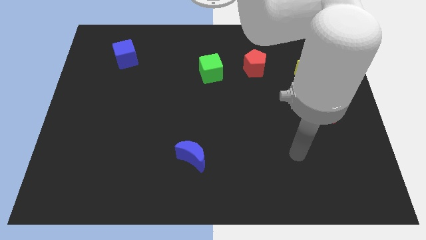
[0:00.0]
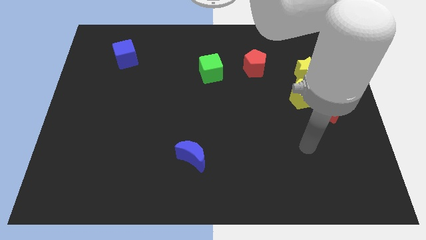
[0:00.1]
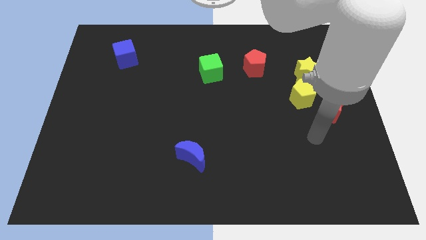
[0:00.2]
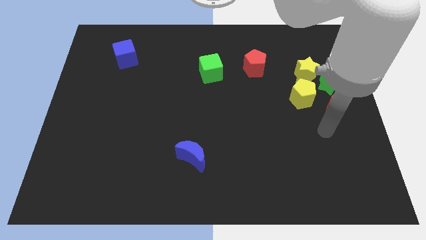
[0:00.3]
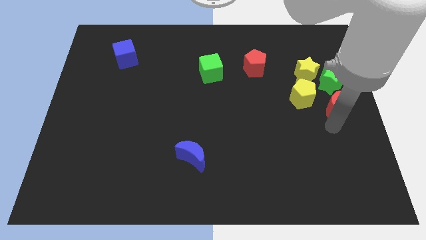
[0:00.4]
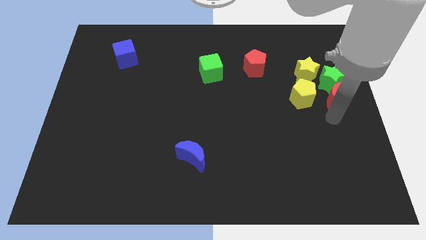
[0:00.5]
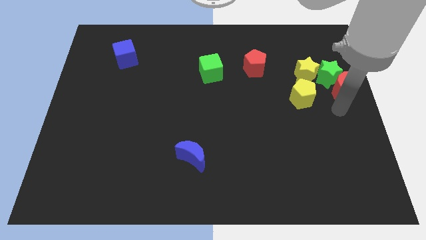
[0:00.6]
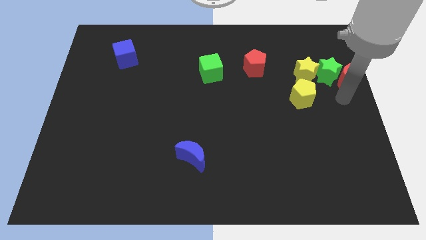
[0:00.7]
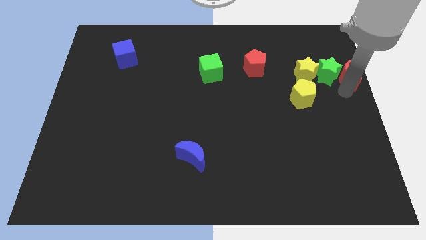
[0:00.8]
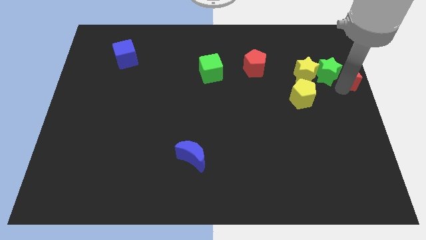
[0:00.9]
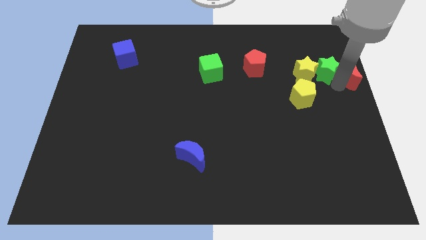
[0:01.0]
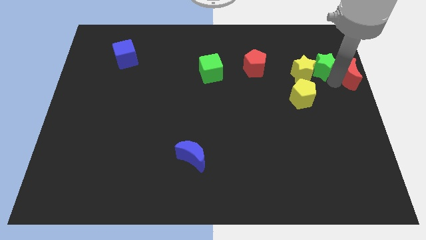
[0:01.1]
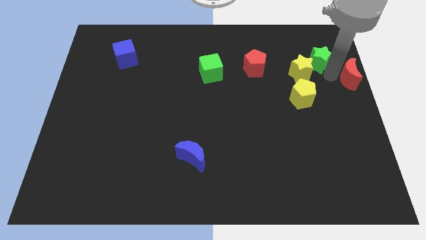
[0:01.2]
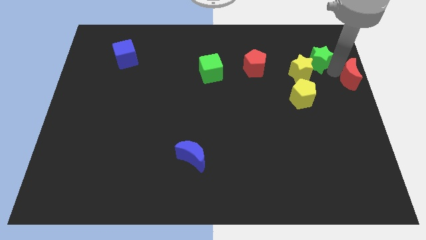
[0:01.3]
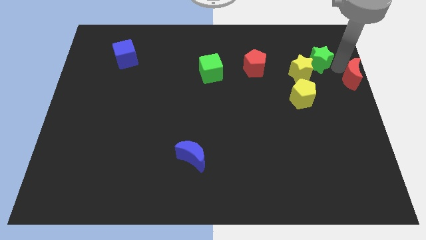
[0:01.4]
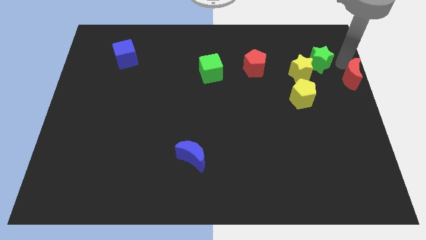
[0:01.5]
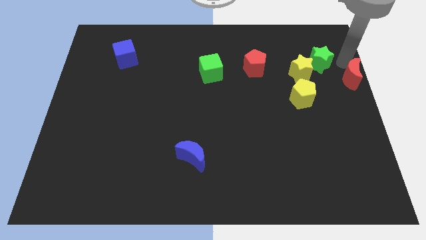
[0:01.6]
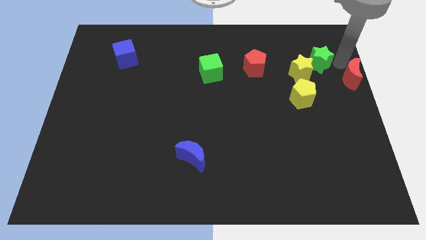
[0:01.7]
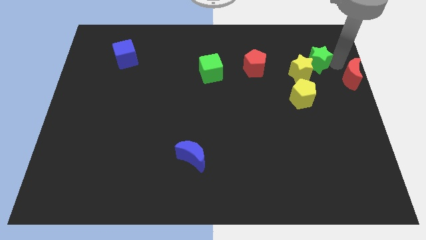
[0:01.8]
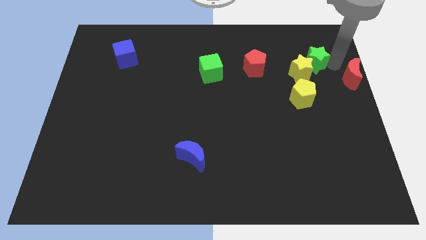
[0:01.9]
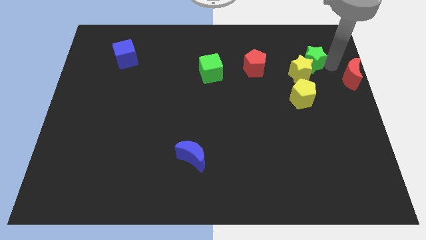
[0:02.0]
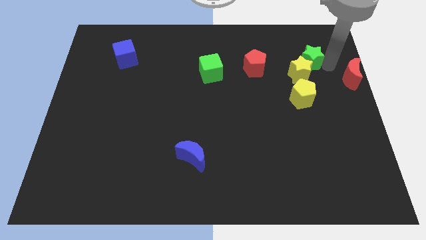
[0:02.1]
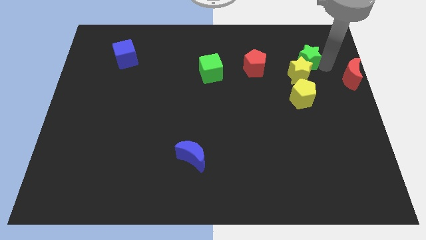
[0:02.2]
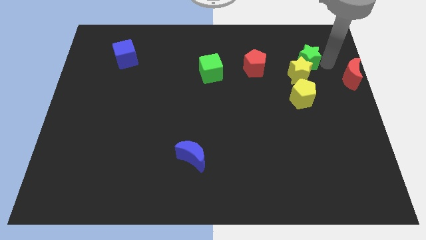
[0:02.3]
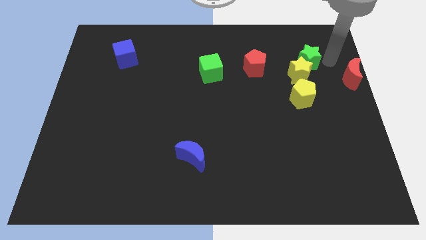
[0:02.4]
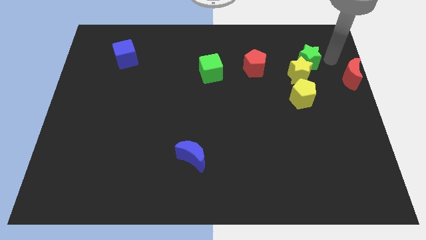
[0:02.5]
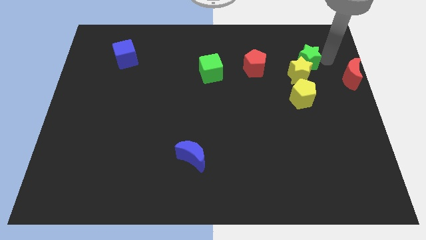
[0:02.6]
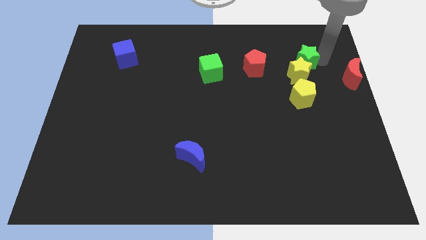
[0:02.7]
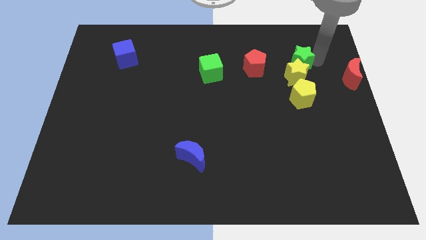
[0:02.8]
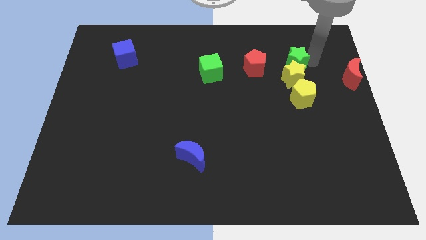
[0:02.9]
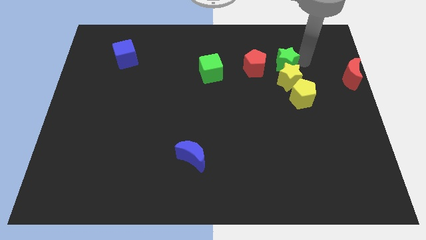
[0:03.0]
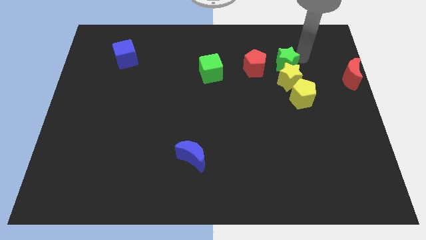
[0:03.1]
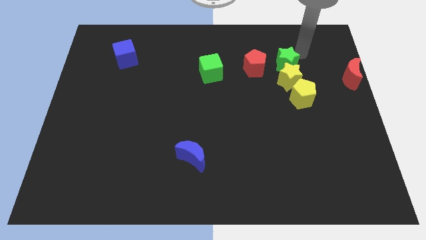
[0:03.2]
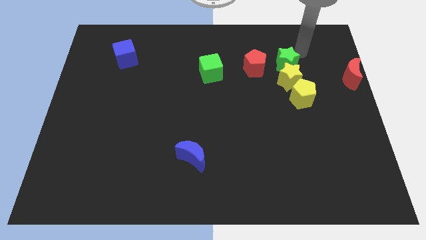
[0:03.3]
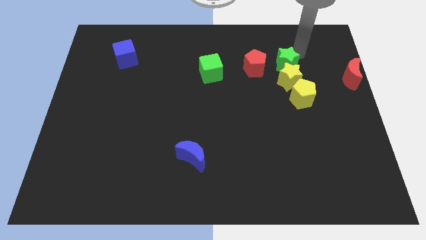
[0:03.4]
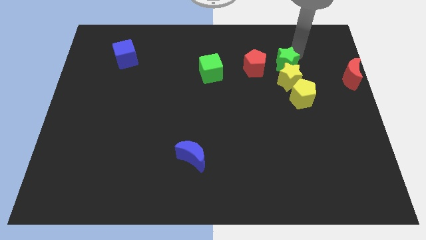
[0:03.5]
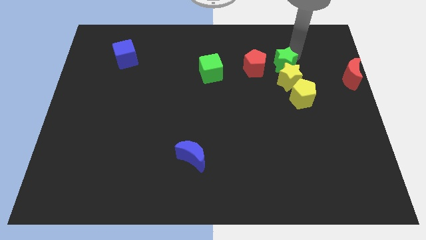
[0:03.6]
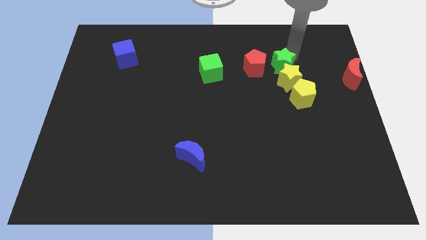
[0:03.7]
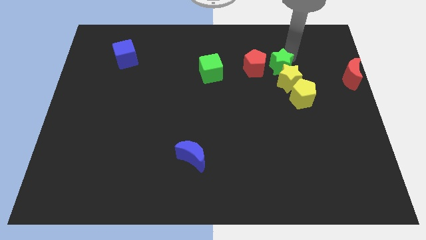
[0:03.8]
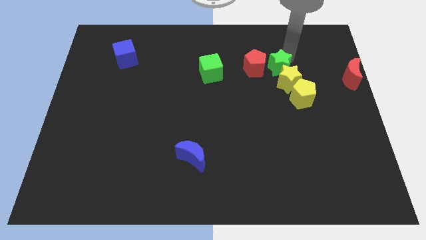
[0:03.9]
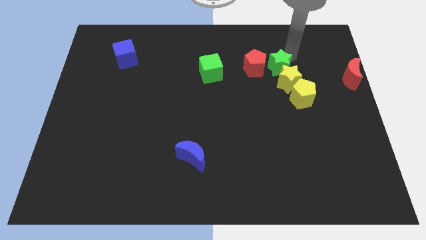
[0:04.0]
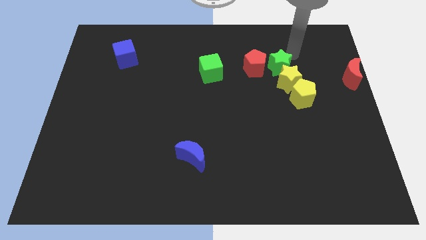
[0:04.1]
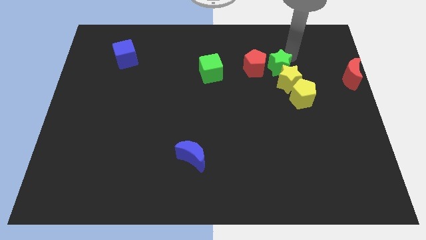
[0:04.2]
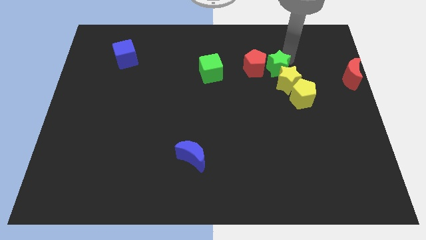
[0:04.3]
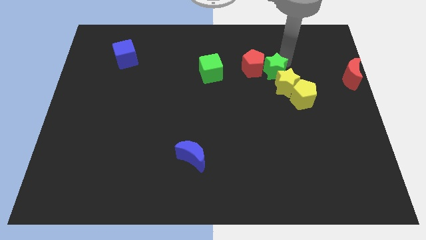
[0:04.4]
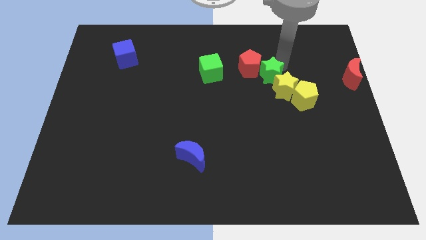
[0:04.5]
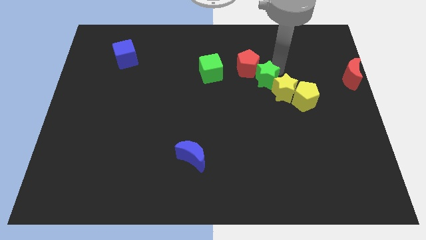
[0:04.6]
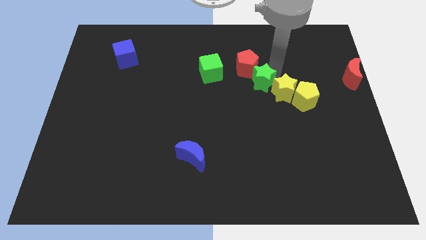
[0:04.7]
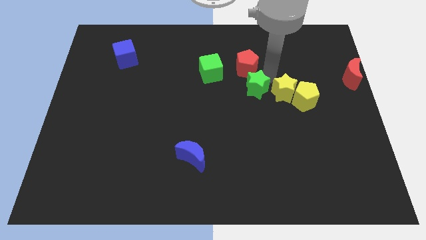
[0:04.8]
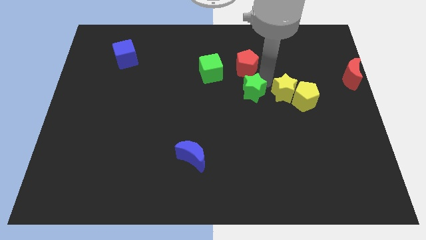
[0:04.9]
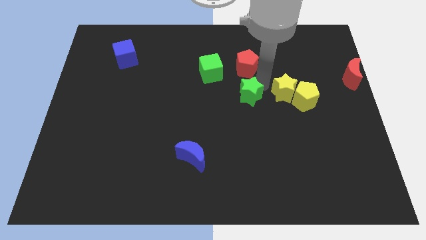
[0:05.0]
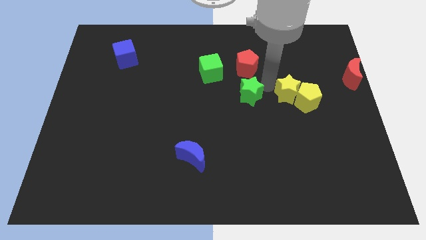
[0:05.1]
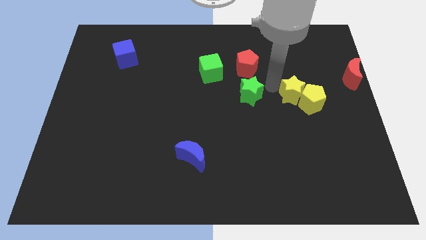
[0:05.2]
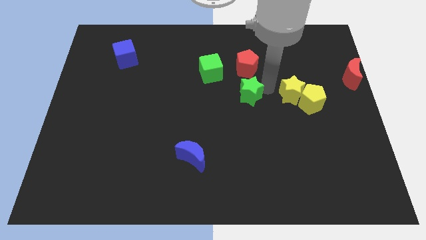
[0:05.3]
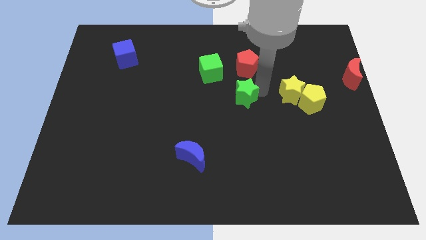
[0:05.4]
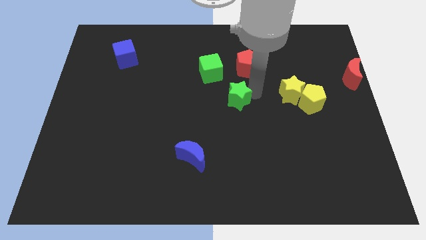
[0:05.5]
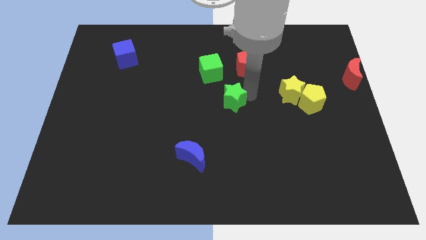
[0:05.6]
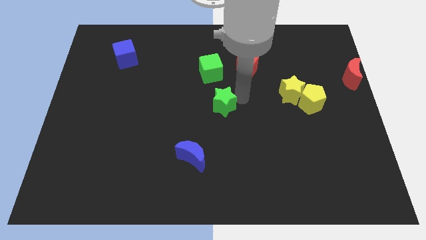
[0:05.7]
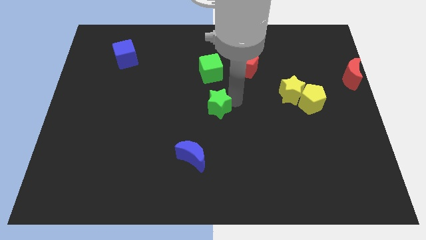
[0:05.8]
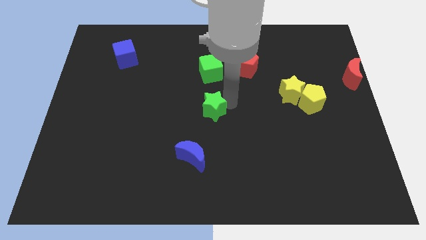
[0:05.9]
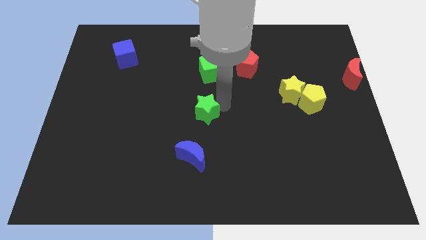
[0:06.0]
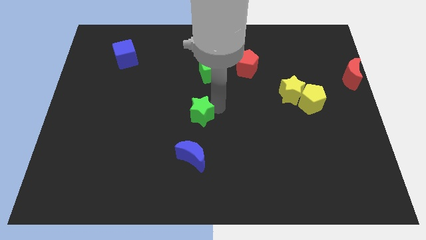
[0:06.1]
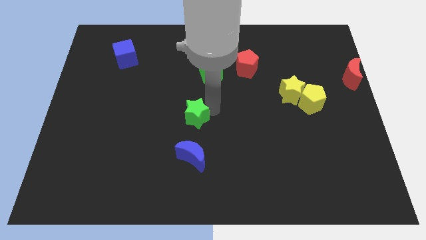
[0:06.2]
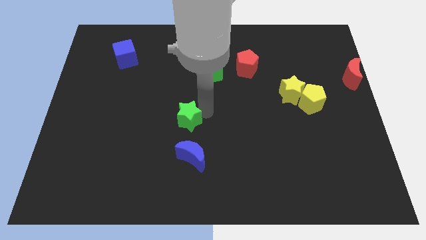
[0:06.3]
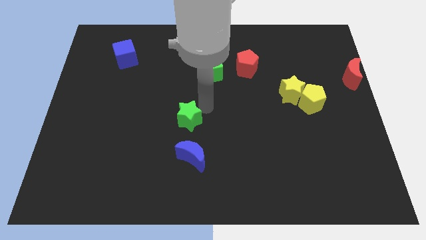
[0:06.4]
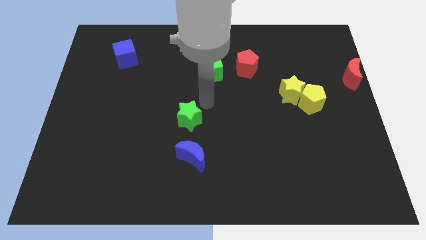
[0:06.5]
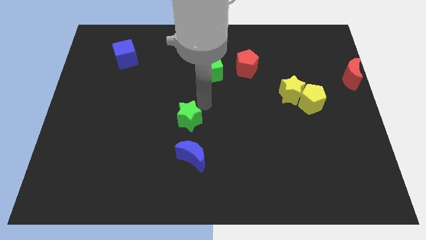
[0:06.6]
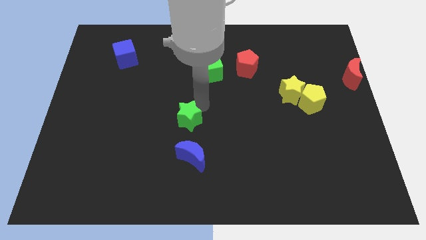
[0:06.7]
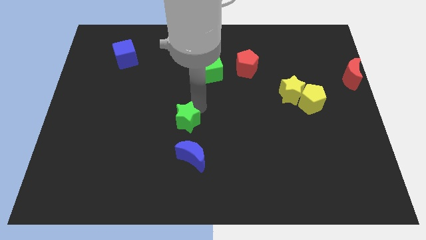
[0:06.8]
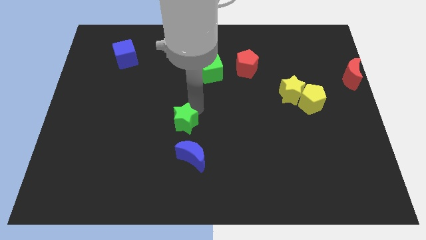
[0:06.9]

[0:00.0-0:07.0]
slide the green star diagonally up and to the left of the blue moon
